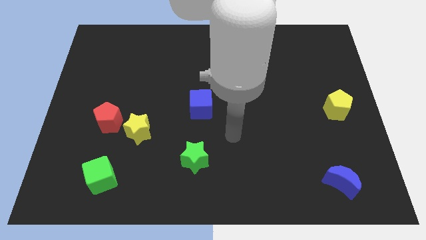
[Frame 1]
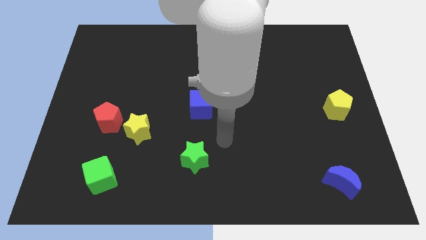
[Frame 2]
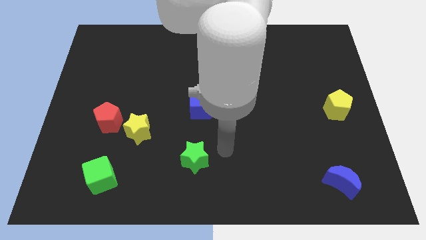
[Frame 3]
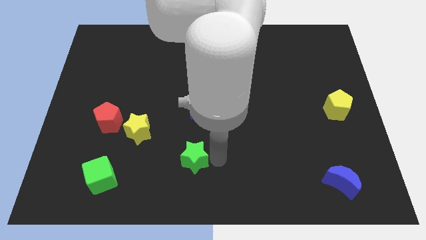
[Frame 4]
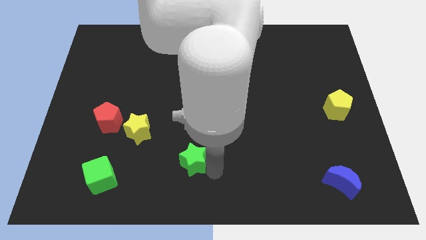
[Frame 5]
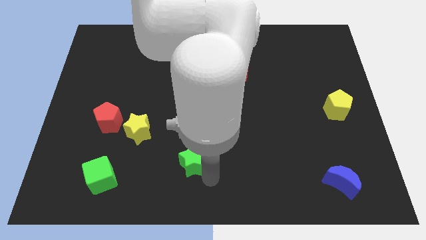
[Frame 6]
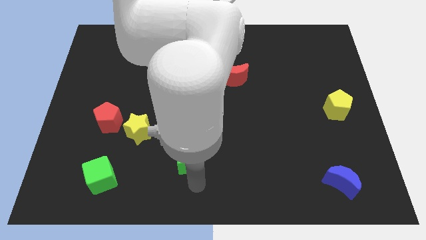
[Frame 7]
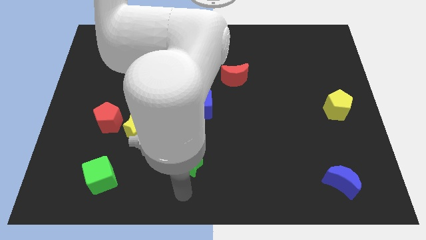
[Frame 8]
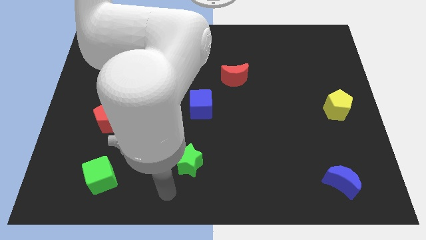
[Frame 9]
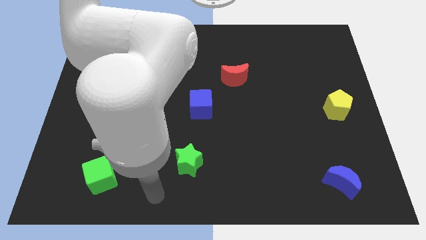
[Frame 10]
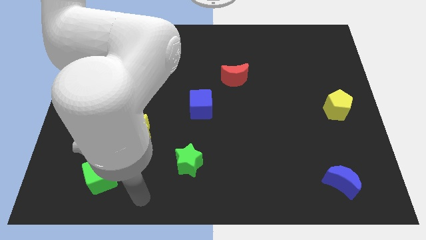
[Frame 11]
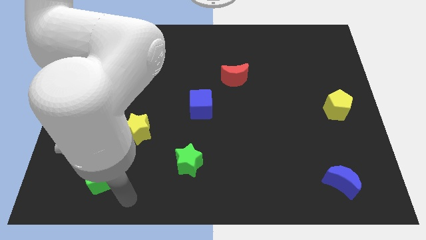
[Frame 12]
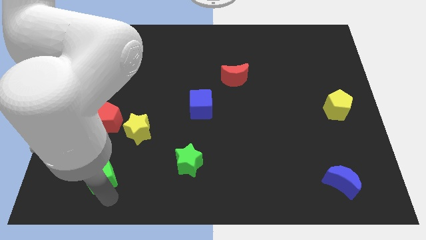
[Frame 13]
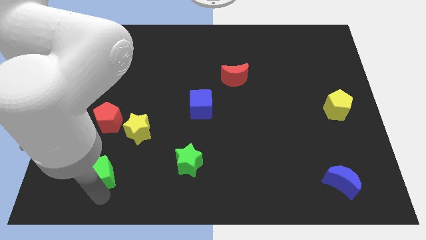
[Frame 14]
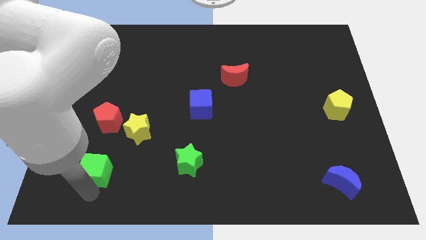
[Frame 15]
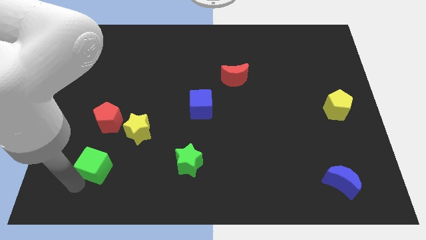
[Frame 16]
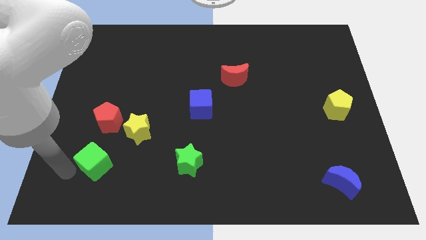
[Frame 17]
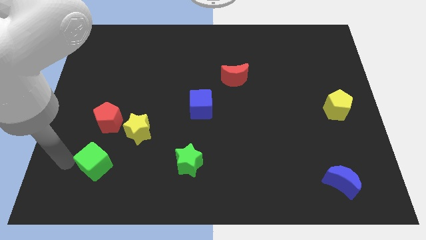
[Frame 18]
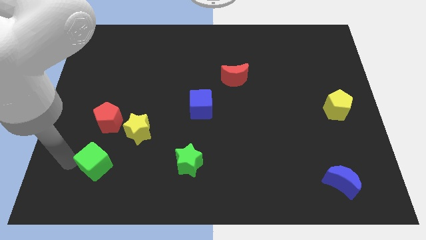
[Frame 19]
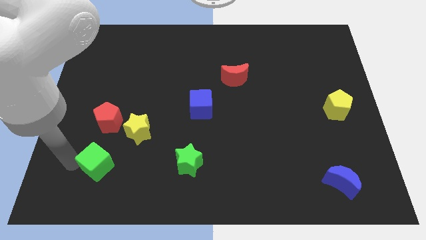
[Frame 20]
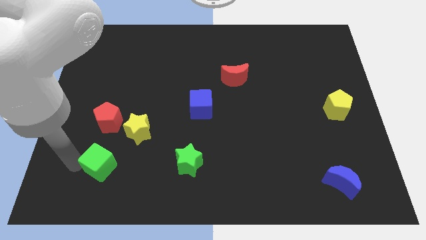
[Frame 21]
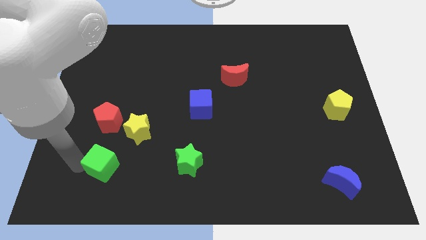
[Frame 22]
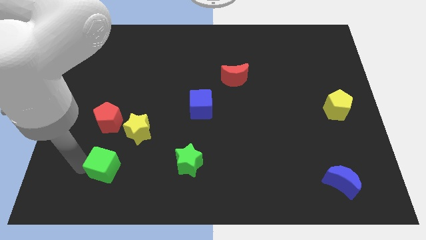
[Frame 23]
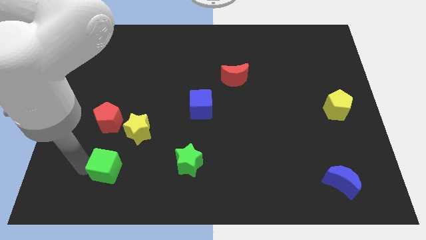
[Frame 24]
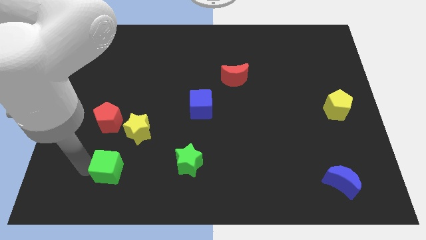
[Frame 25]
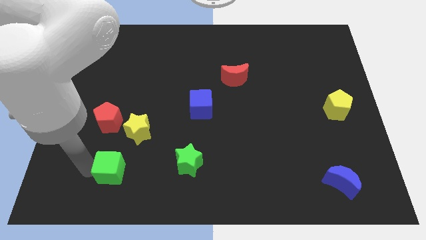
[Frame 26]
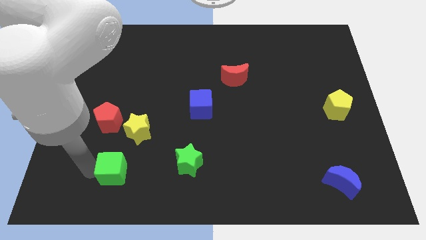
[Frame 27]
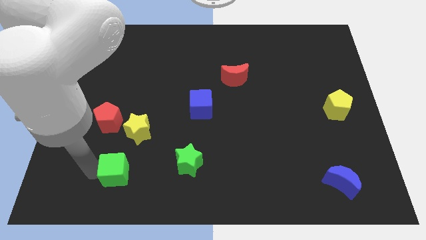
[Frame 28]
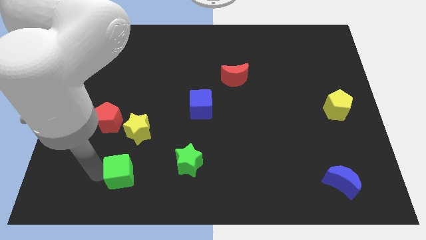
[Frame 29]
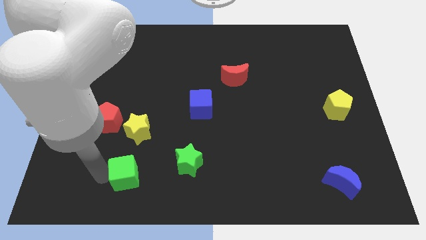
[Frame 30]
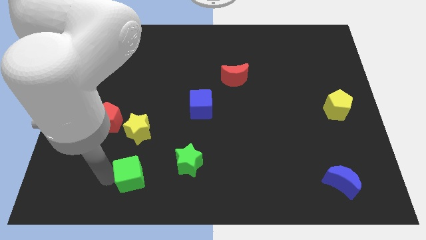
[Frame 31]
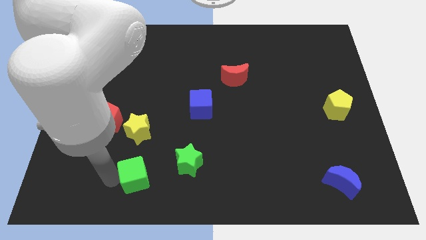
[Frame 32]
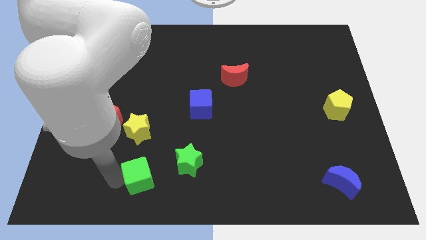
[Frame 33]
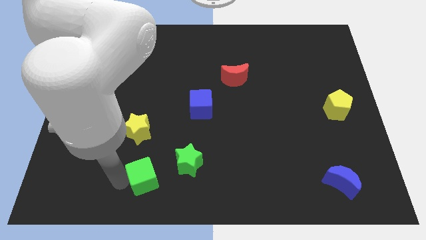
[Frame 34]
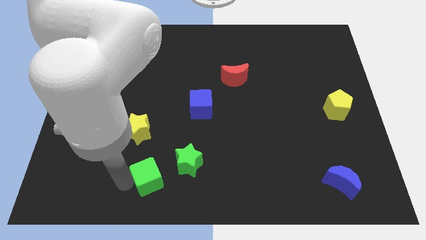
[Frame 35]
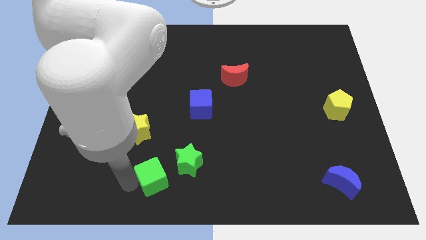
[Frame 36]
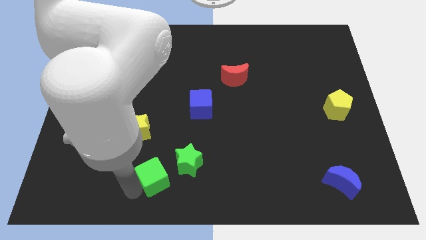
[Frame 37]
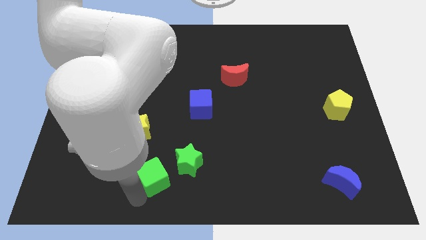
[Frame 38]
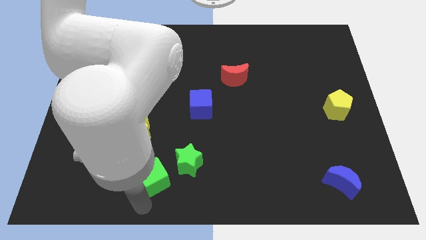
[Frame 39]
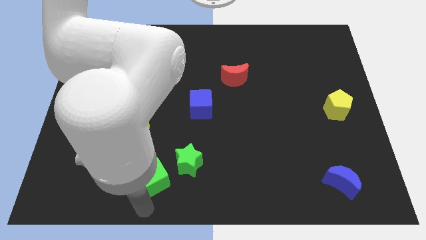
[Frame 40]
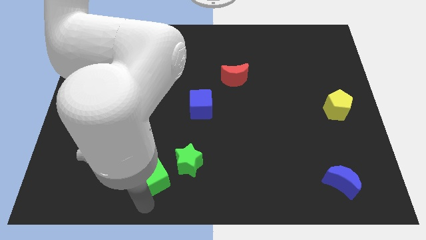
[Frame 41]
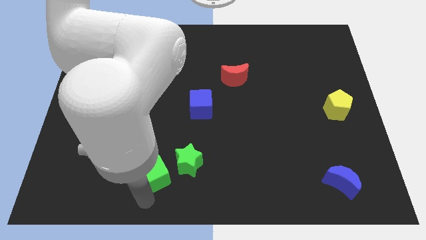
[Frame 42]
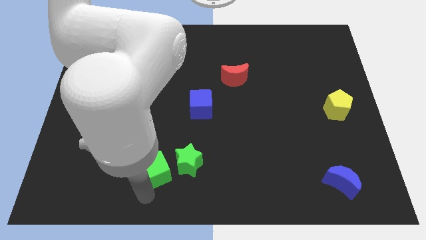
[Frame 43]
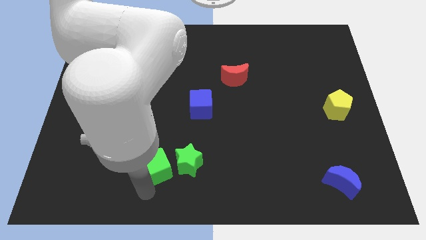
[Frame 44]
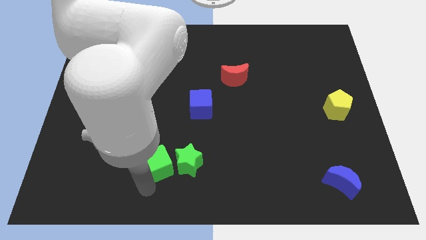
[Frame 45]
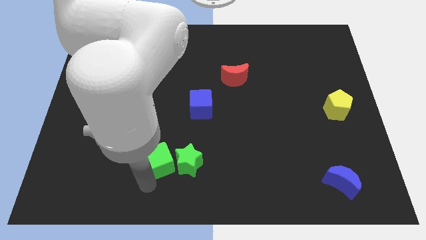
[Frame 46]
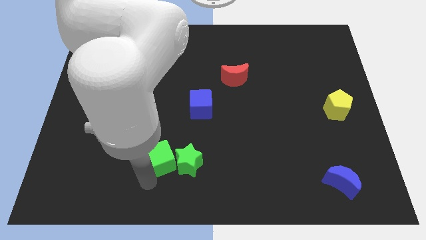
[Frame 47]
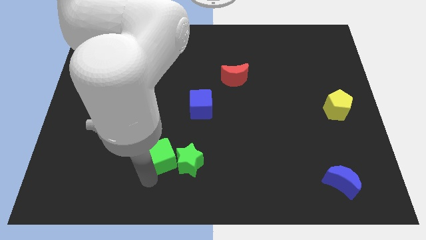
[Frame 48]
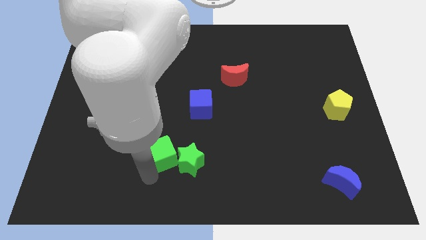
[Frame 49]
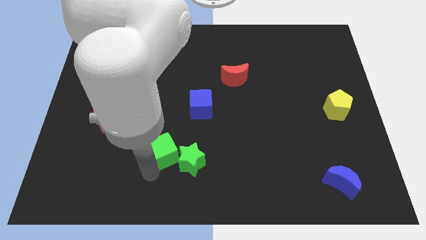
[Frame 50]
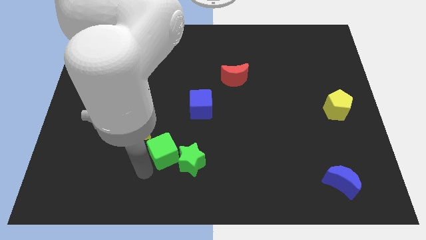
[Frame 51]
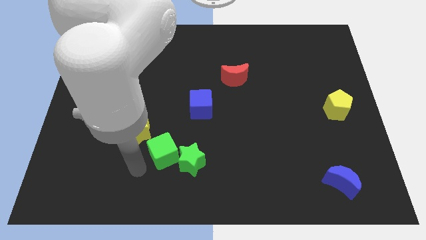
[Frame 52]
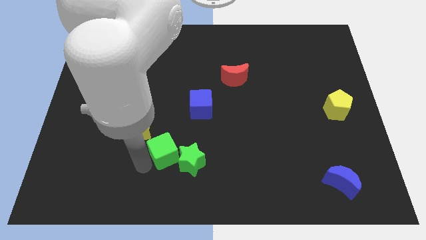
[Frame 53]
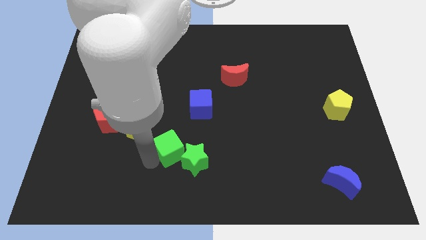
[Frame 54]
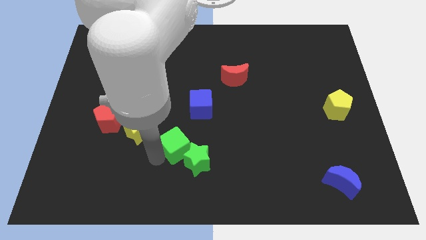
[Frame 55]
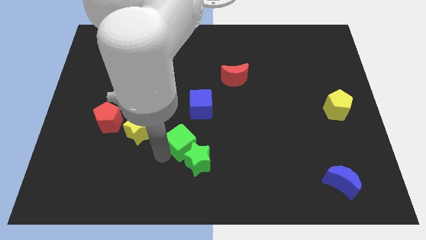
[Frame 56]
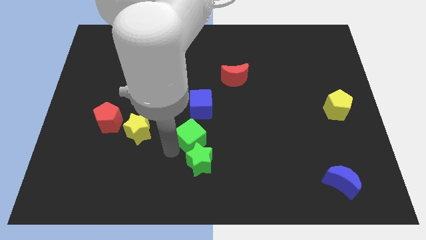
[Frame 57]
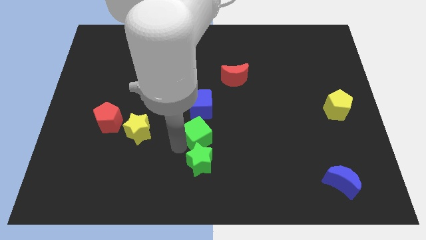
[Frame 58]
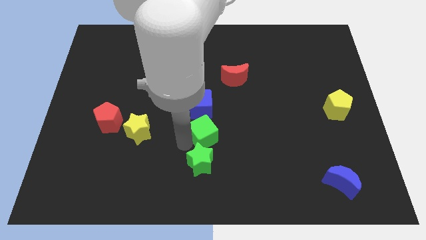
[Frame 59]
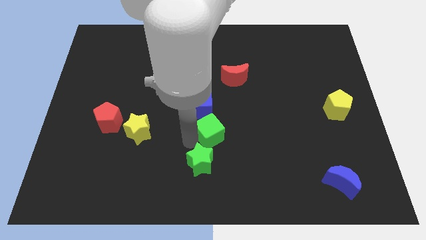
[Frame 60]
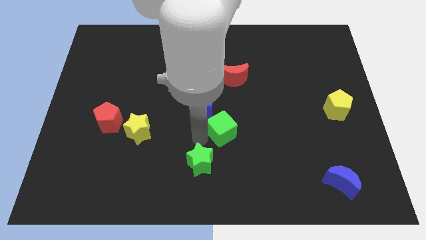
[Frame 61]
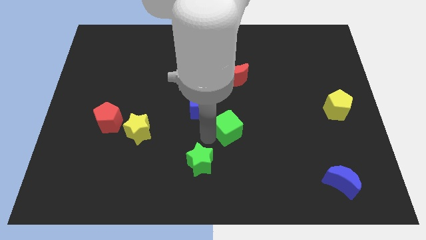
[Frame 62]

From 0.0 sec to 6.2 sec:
push the green cube below the red moon

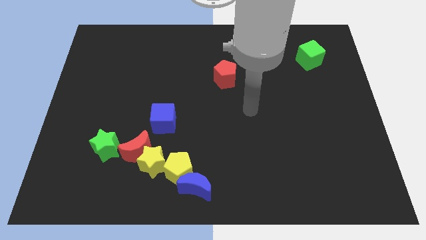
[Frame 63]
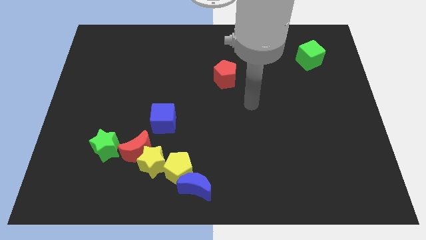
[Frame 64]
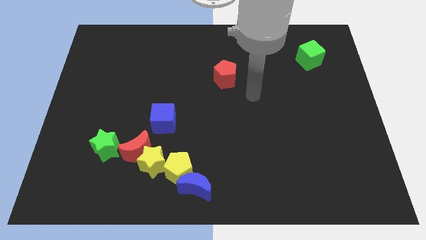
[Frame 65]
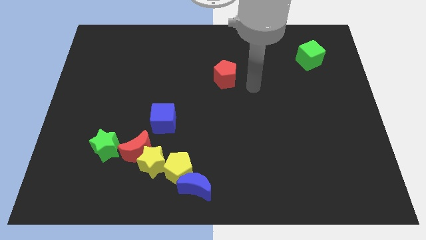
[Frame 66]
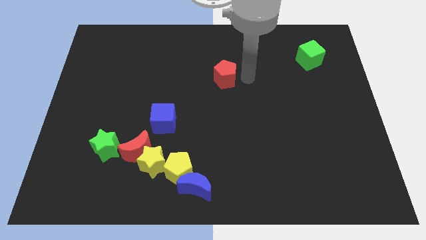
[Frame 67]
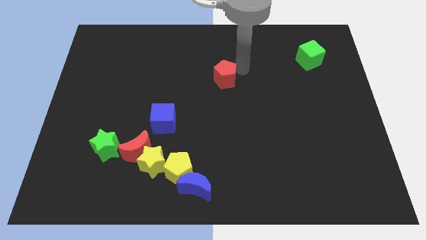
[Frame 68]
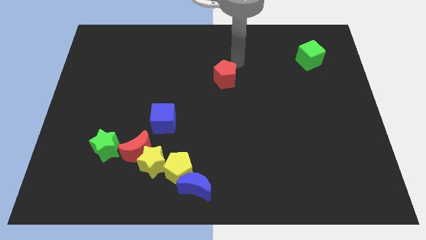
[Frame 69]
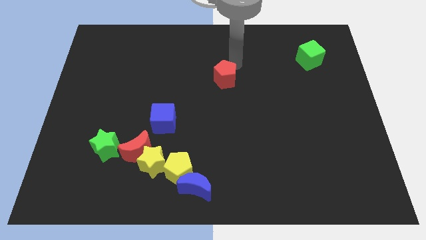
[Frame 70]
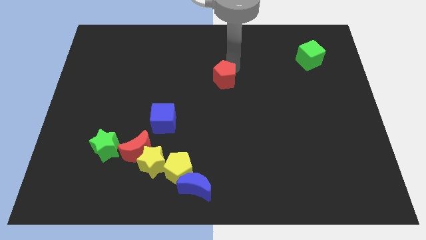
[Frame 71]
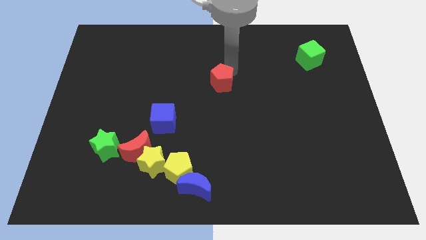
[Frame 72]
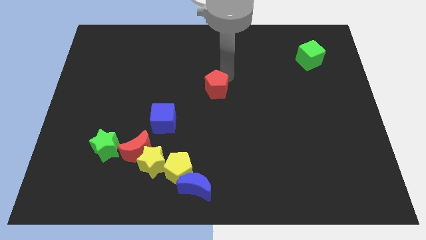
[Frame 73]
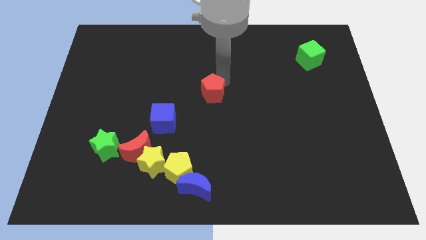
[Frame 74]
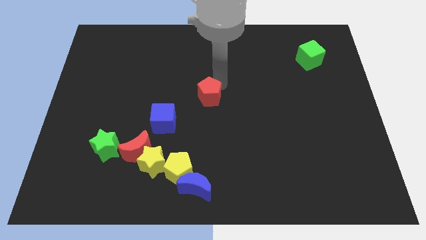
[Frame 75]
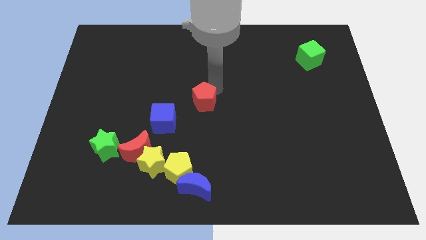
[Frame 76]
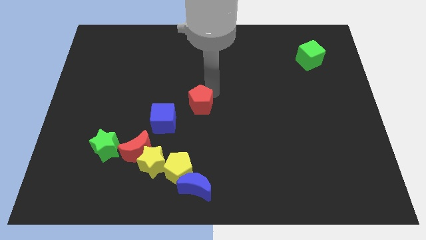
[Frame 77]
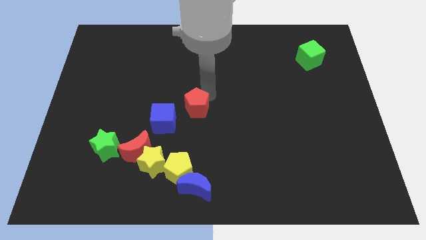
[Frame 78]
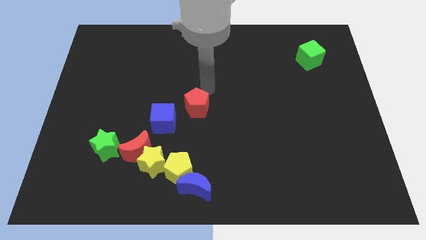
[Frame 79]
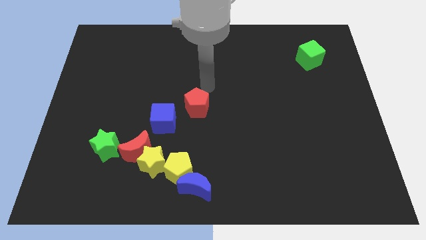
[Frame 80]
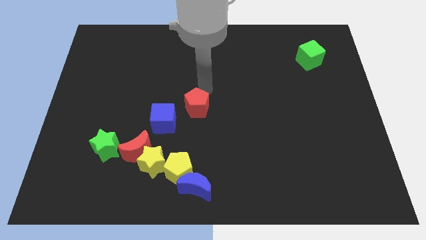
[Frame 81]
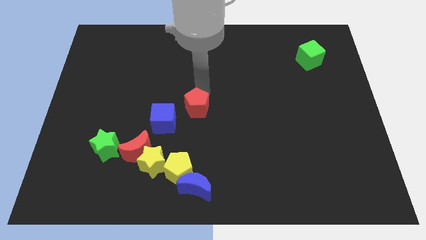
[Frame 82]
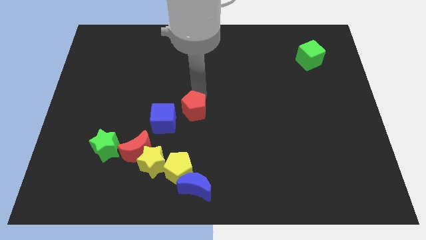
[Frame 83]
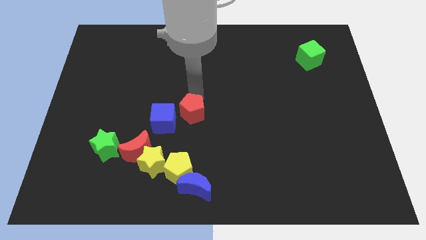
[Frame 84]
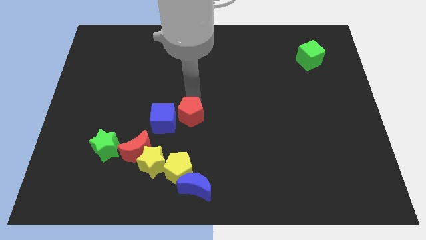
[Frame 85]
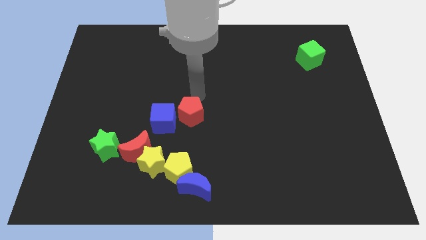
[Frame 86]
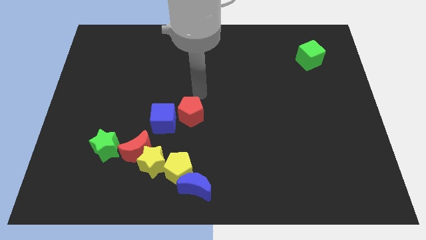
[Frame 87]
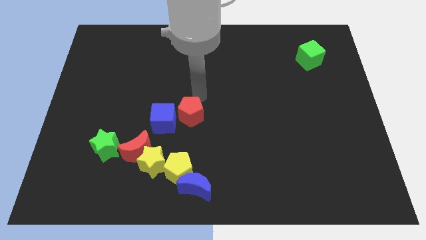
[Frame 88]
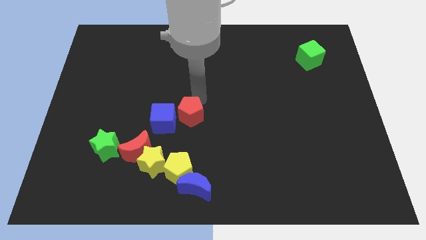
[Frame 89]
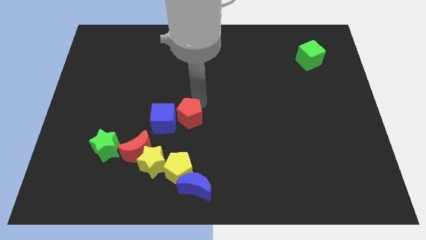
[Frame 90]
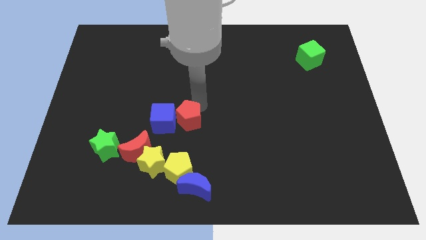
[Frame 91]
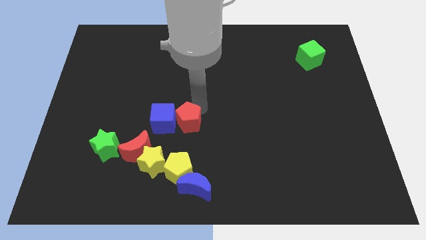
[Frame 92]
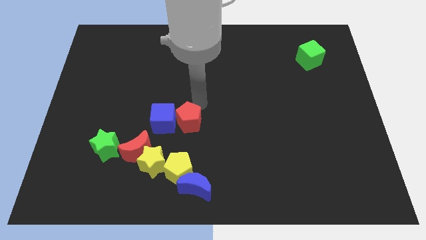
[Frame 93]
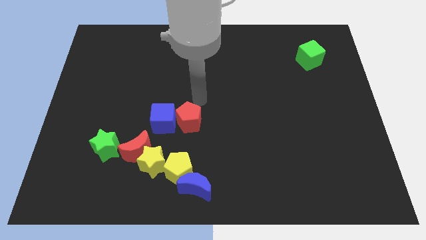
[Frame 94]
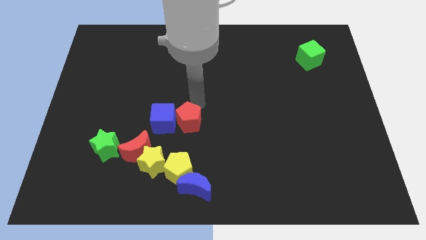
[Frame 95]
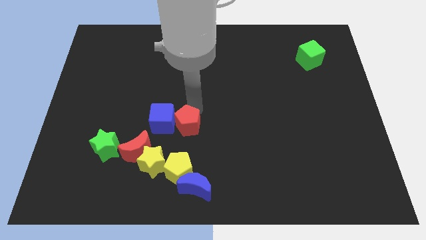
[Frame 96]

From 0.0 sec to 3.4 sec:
push the red pentagon to the top right side of the yellow star
